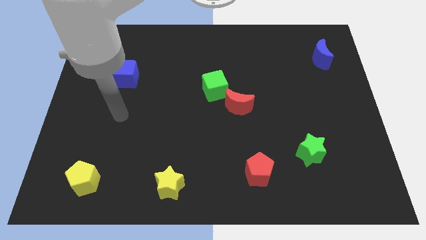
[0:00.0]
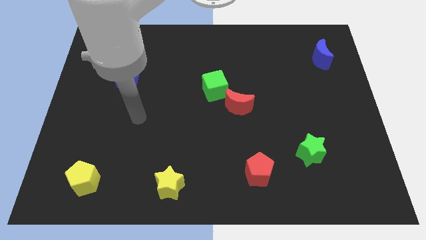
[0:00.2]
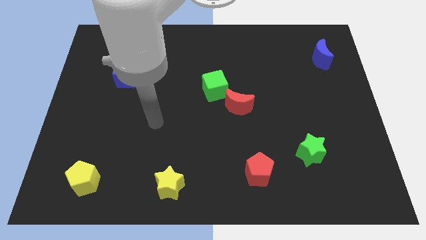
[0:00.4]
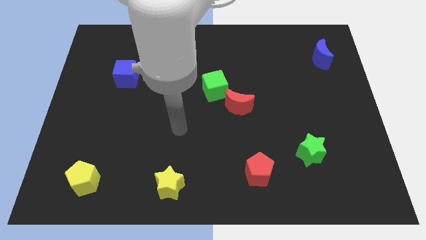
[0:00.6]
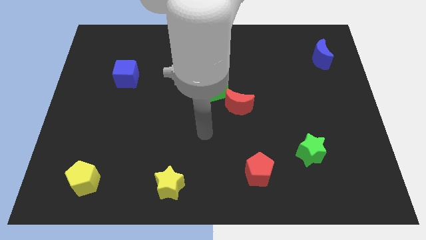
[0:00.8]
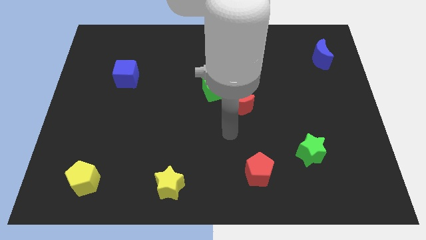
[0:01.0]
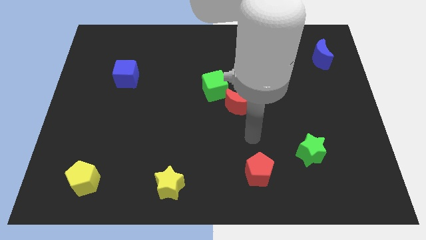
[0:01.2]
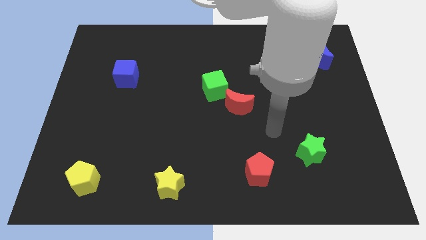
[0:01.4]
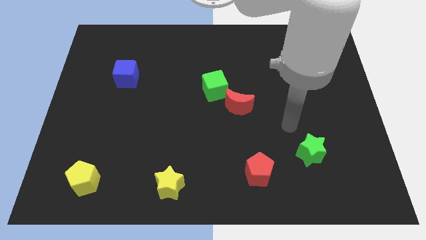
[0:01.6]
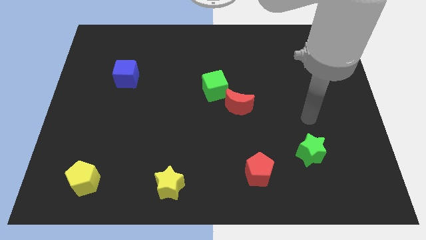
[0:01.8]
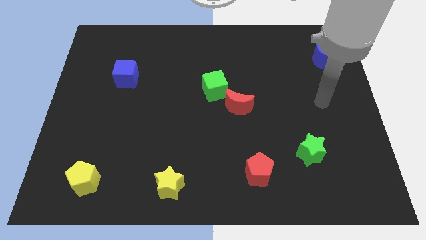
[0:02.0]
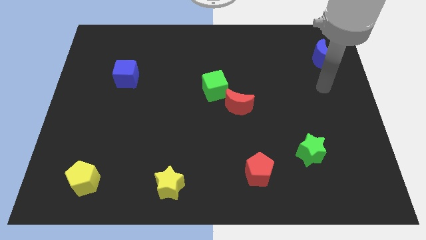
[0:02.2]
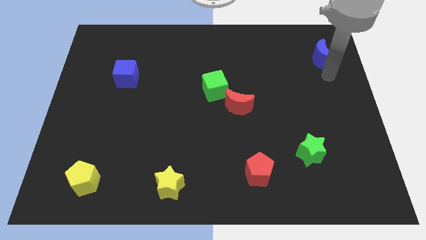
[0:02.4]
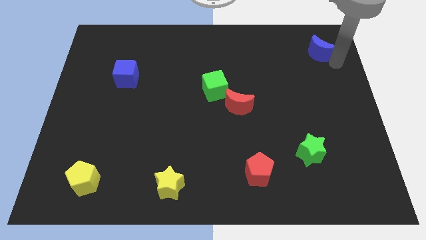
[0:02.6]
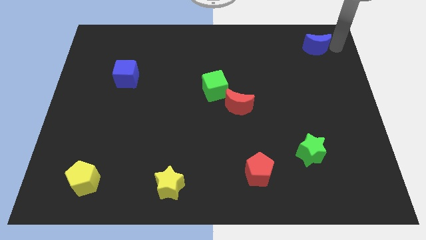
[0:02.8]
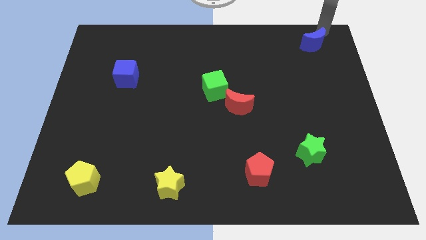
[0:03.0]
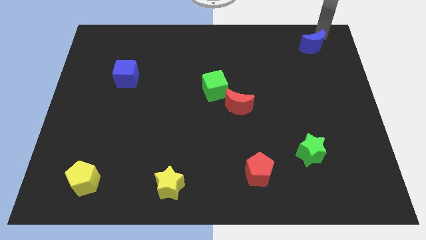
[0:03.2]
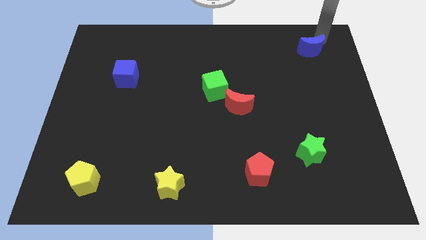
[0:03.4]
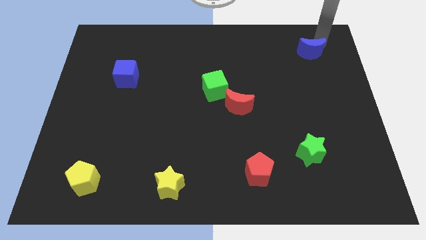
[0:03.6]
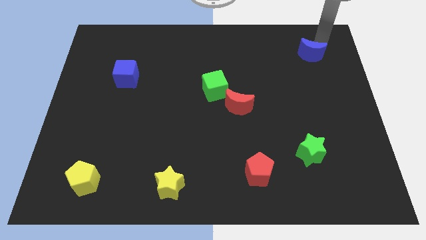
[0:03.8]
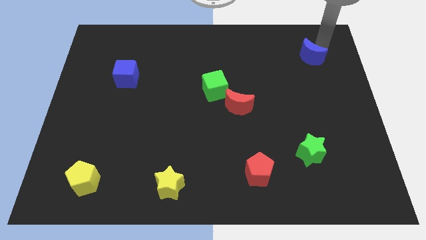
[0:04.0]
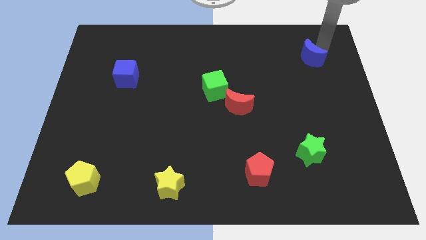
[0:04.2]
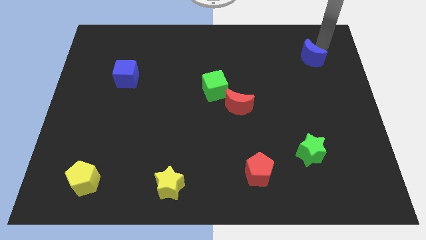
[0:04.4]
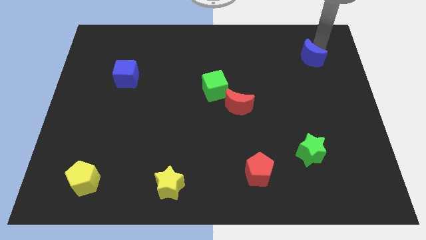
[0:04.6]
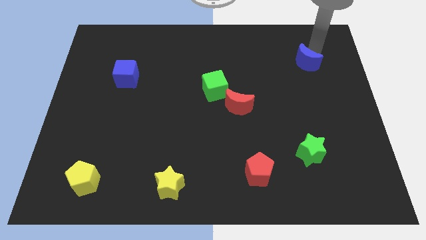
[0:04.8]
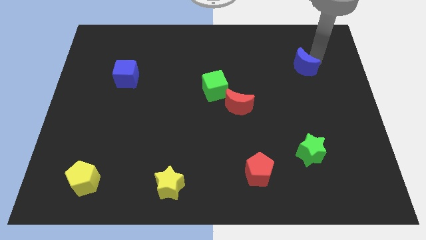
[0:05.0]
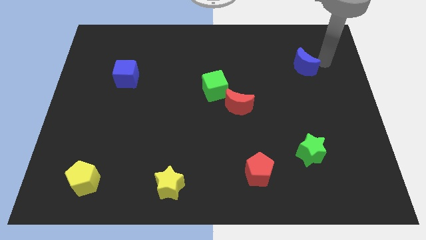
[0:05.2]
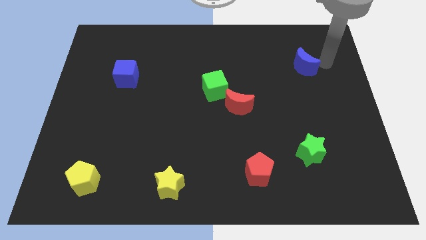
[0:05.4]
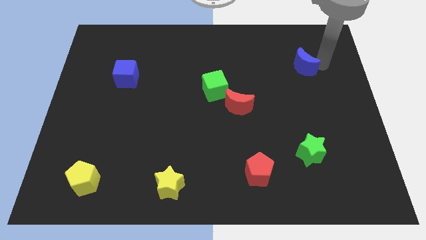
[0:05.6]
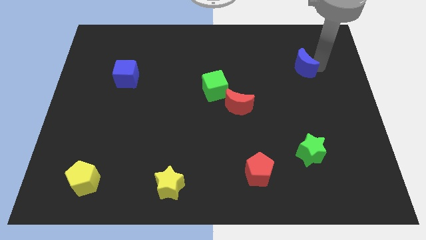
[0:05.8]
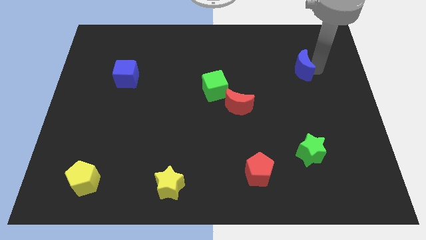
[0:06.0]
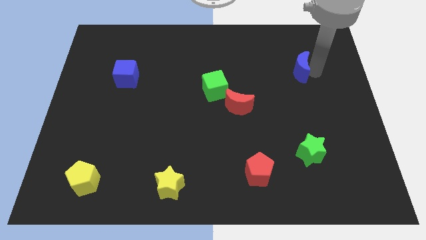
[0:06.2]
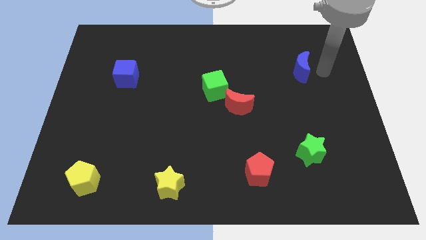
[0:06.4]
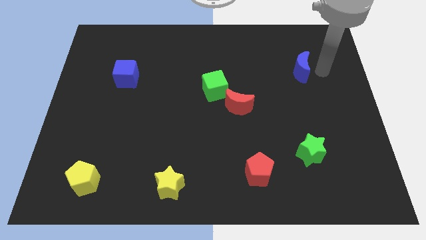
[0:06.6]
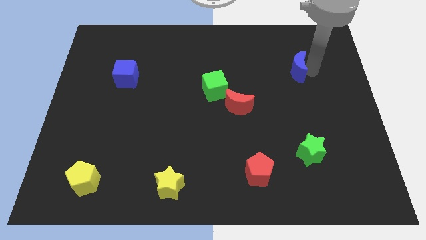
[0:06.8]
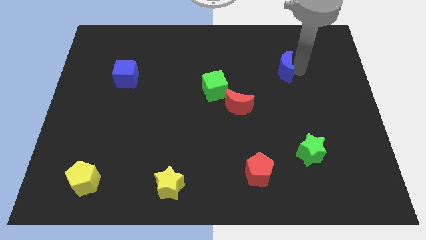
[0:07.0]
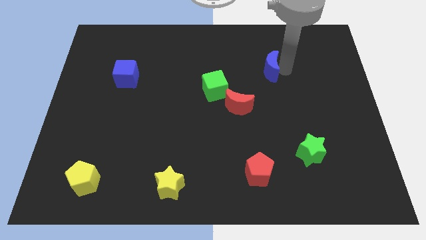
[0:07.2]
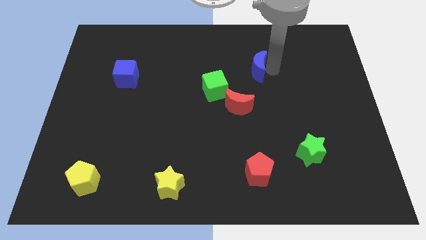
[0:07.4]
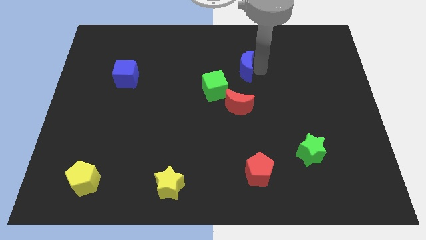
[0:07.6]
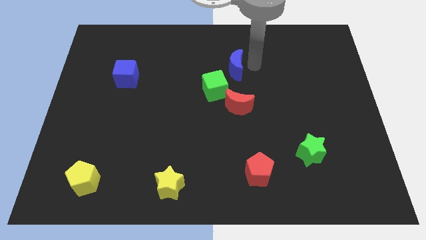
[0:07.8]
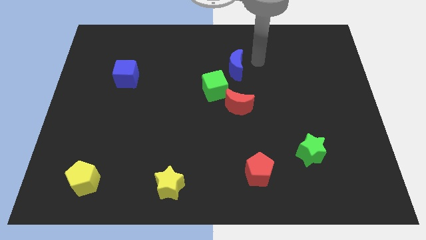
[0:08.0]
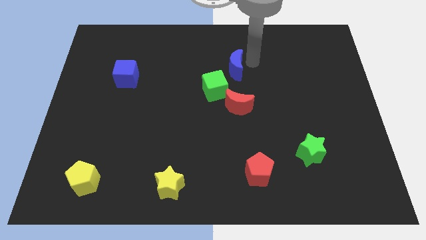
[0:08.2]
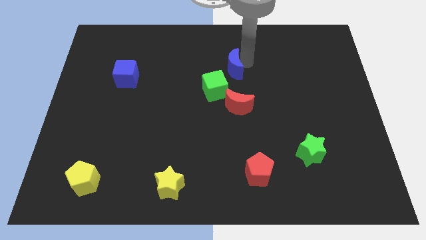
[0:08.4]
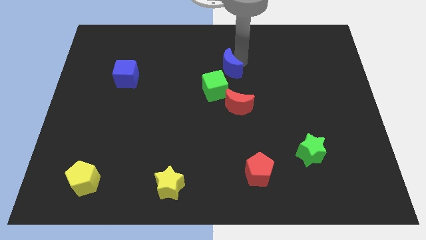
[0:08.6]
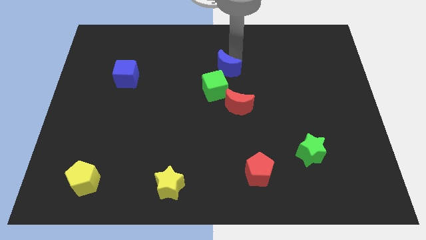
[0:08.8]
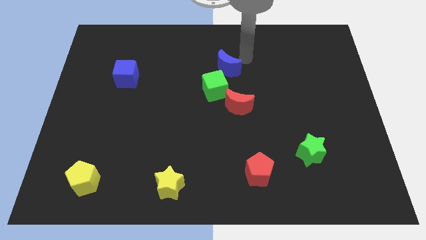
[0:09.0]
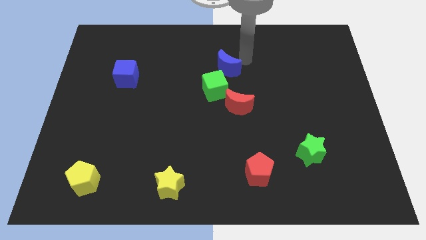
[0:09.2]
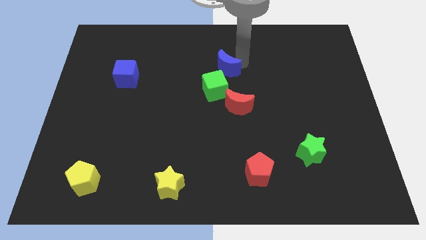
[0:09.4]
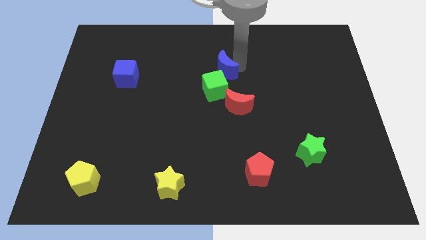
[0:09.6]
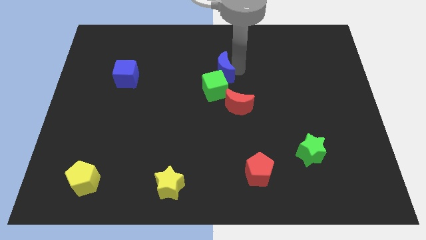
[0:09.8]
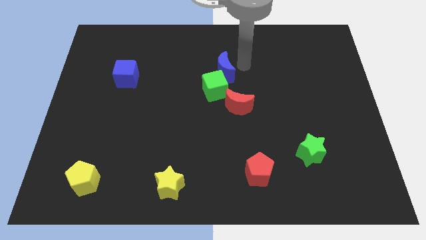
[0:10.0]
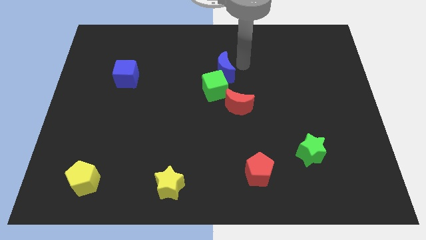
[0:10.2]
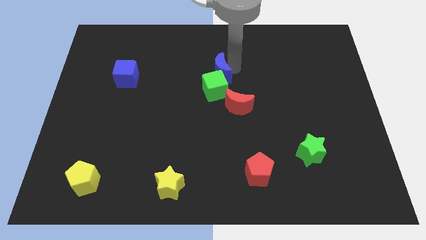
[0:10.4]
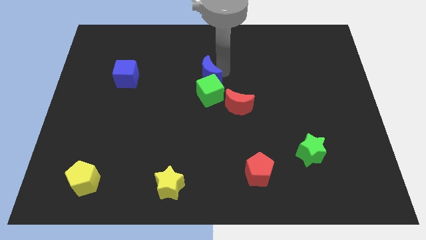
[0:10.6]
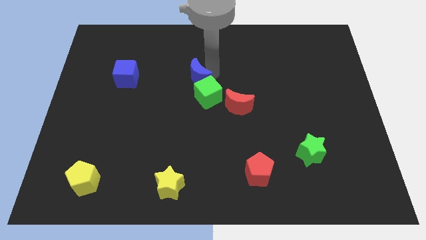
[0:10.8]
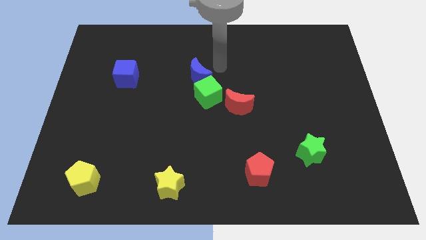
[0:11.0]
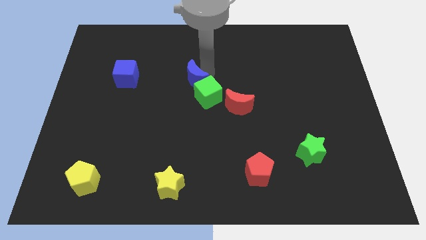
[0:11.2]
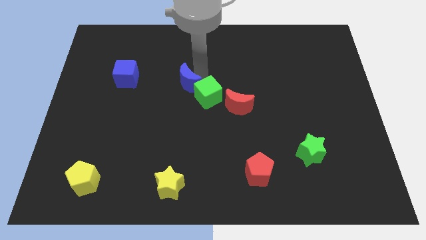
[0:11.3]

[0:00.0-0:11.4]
push the blue moon to the left side of the green cube

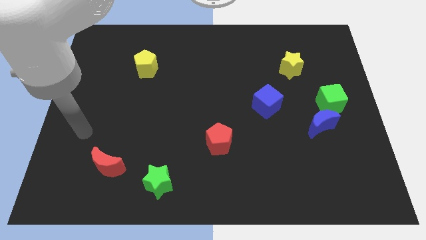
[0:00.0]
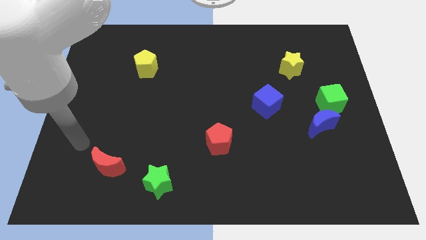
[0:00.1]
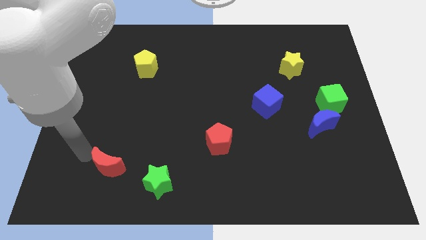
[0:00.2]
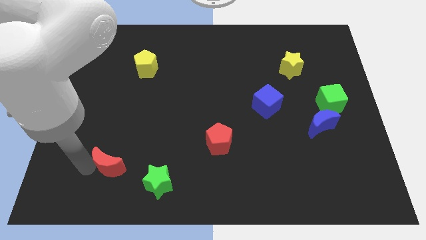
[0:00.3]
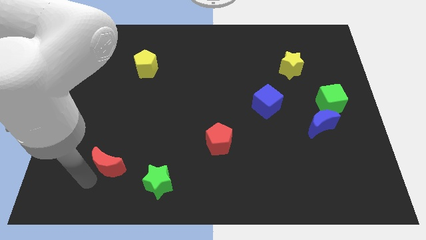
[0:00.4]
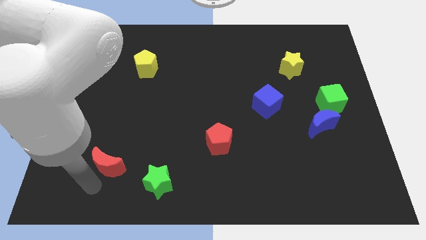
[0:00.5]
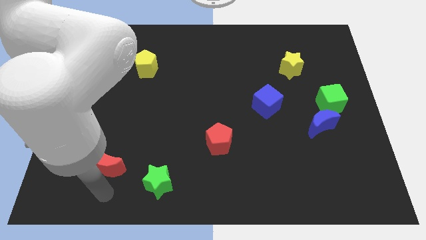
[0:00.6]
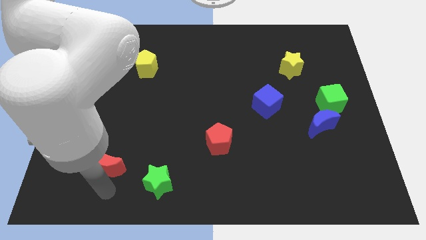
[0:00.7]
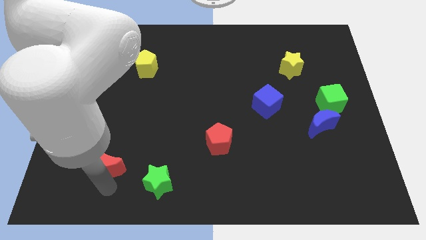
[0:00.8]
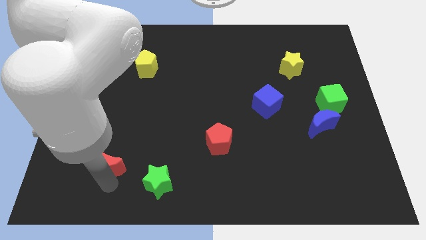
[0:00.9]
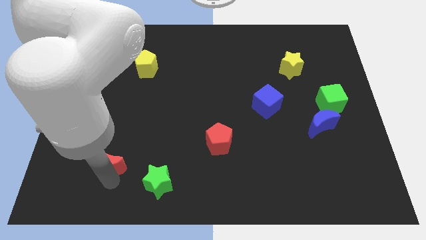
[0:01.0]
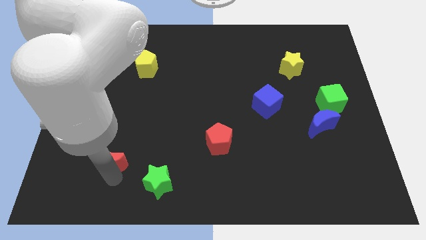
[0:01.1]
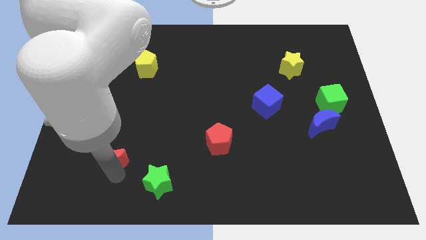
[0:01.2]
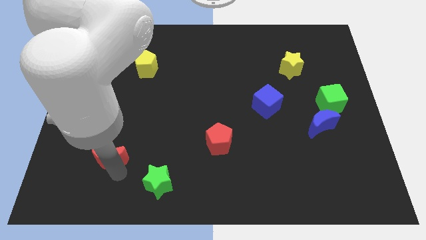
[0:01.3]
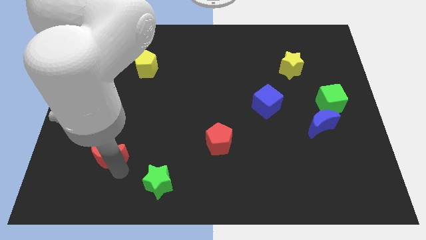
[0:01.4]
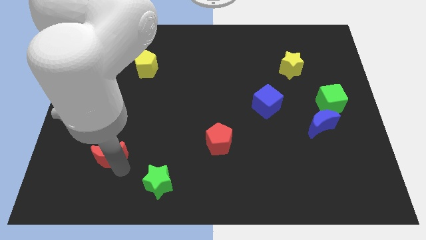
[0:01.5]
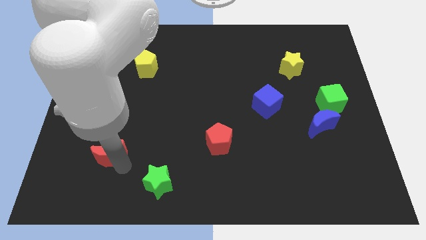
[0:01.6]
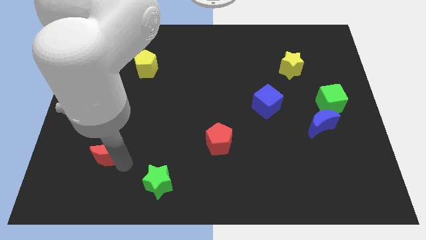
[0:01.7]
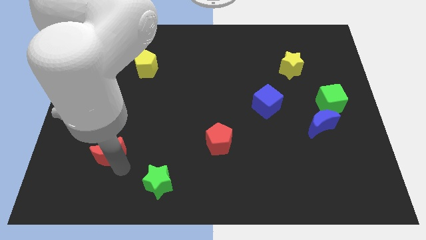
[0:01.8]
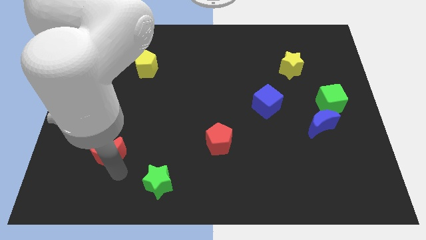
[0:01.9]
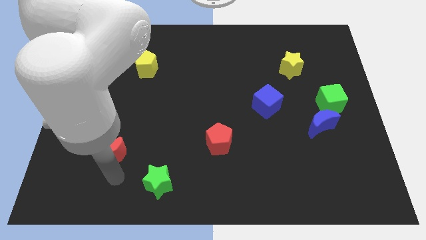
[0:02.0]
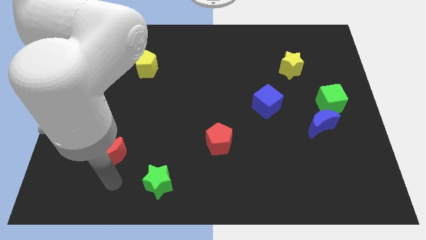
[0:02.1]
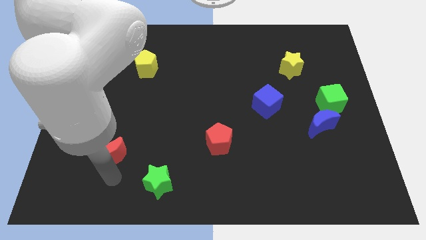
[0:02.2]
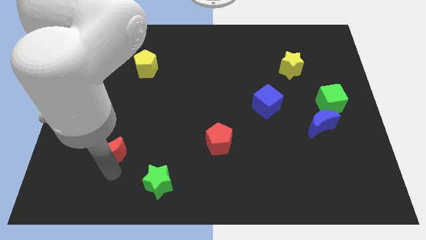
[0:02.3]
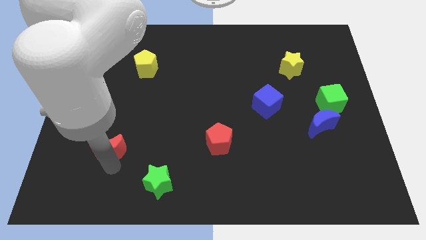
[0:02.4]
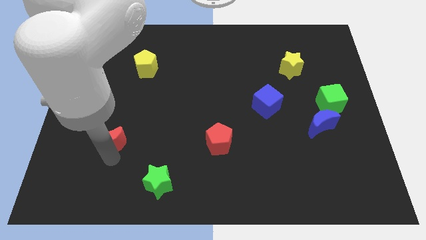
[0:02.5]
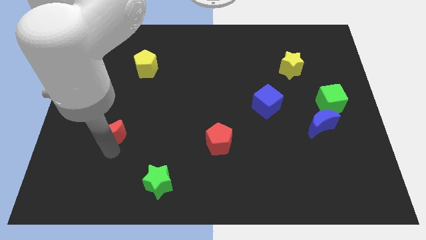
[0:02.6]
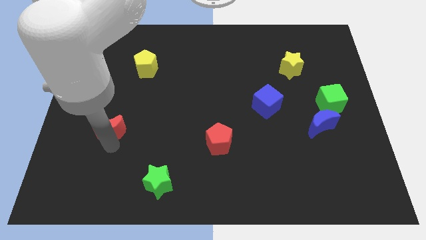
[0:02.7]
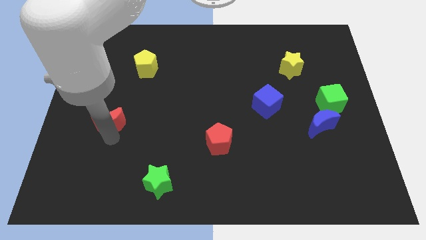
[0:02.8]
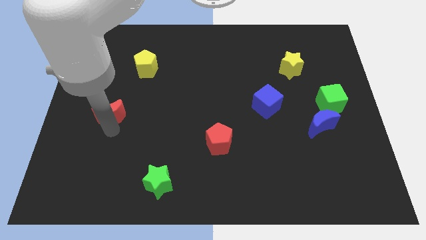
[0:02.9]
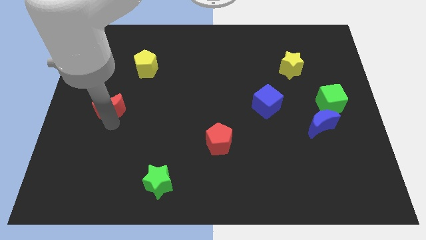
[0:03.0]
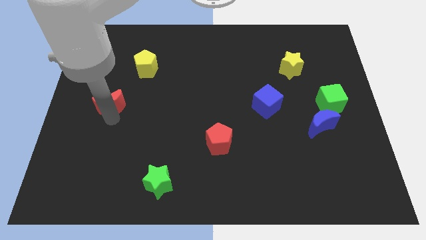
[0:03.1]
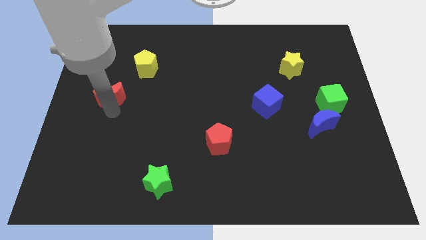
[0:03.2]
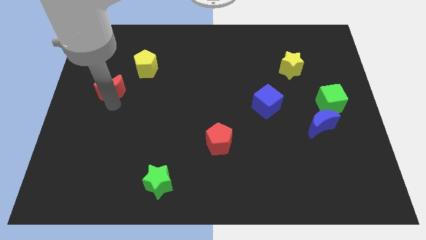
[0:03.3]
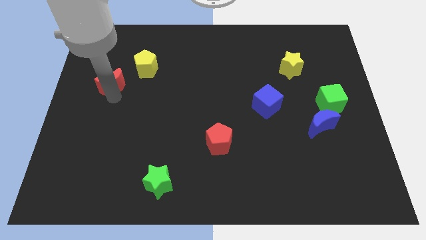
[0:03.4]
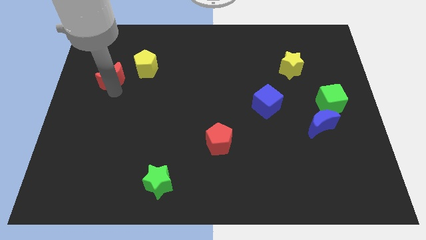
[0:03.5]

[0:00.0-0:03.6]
push the red moon to the left of the yellow pentagon
